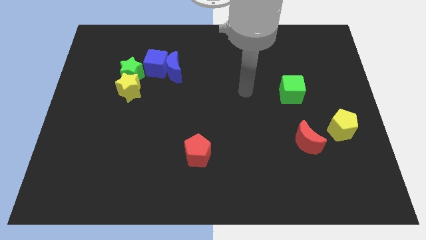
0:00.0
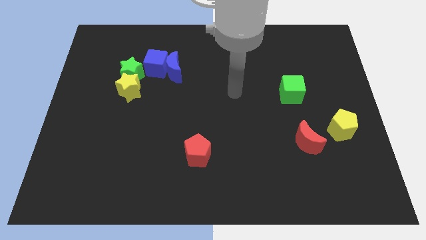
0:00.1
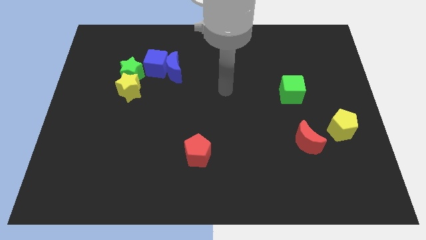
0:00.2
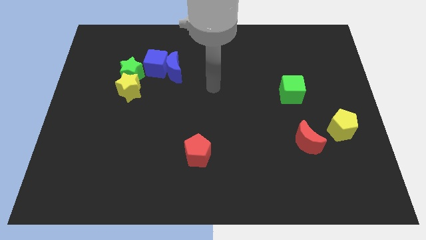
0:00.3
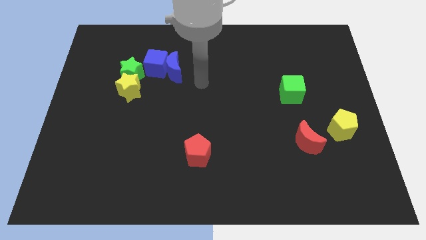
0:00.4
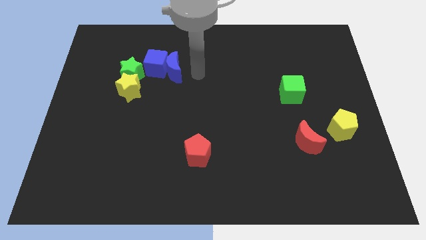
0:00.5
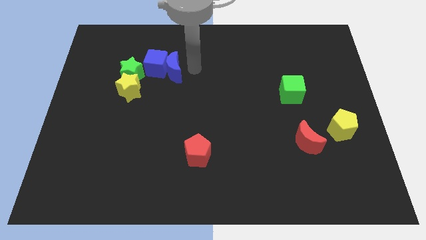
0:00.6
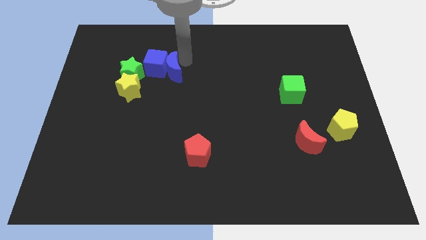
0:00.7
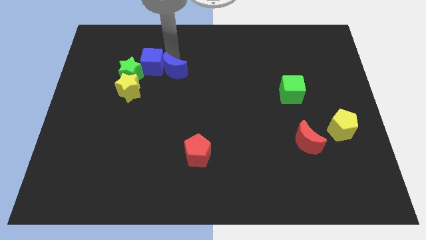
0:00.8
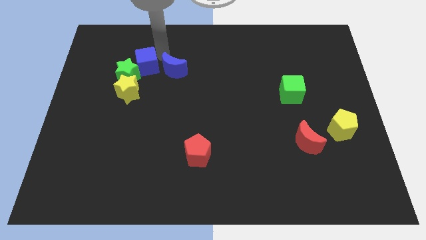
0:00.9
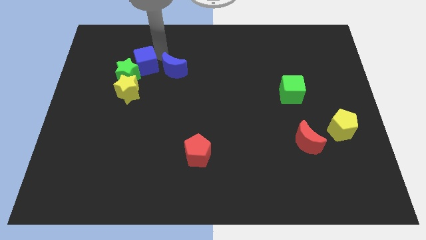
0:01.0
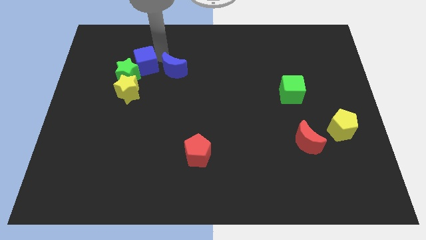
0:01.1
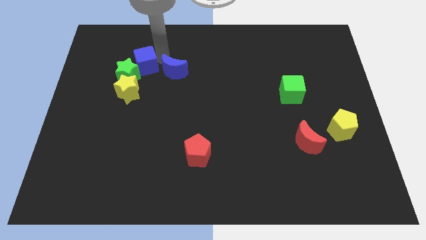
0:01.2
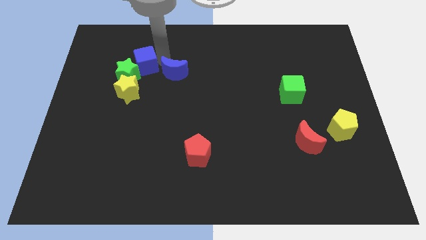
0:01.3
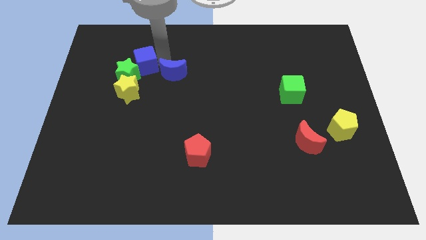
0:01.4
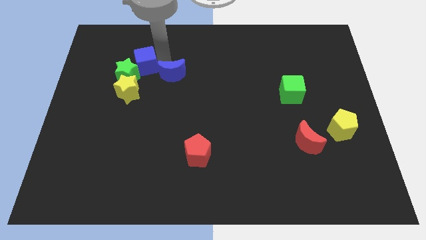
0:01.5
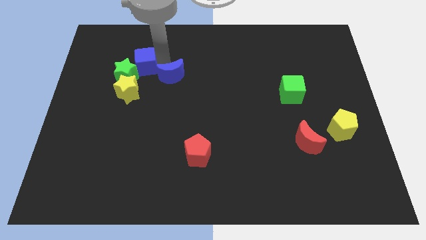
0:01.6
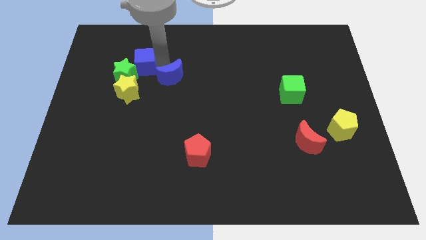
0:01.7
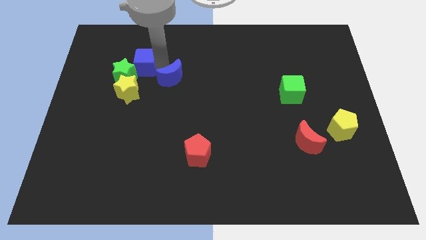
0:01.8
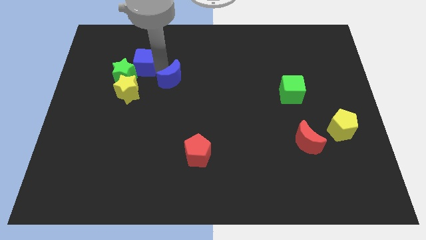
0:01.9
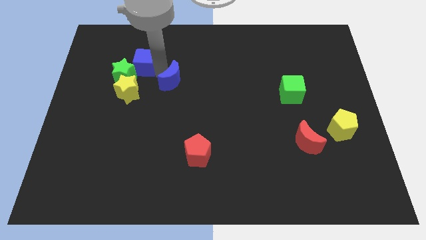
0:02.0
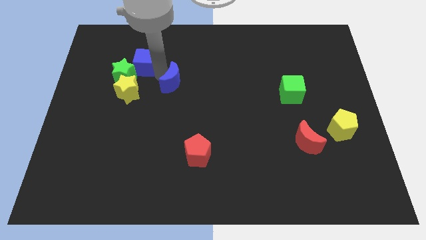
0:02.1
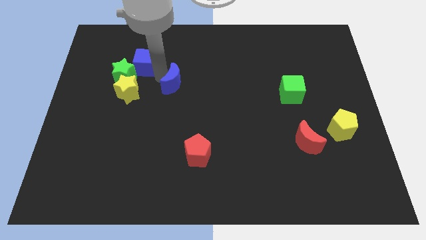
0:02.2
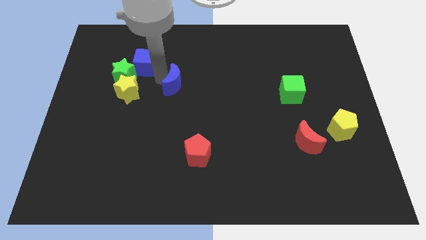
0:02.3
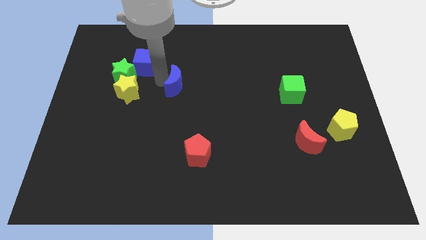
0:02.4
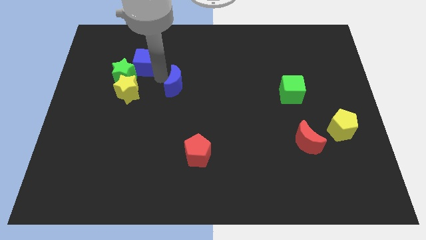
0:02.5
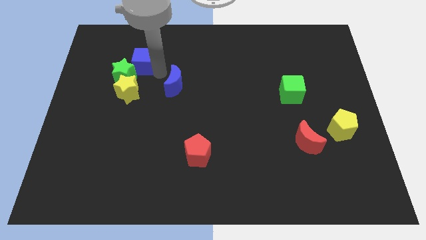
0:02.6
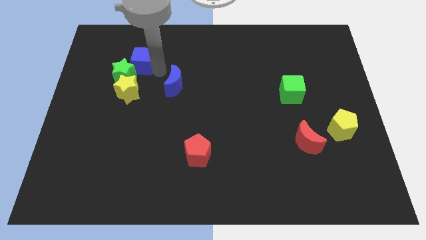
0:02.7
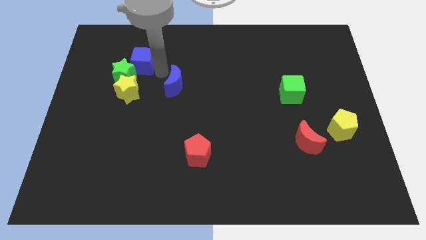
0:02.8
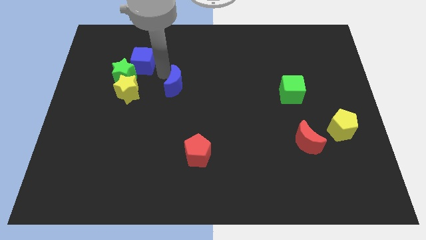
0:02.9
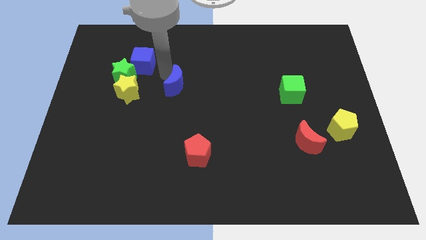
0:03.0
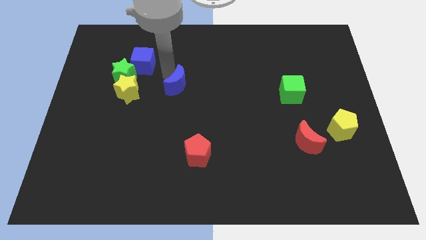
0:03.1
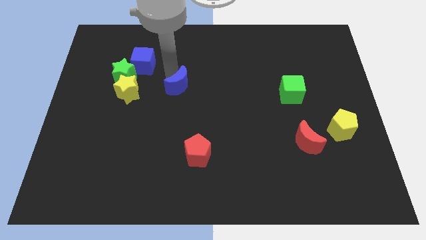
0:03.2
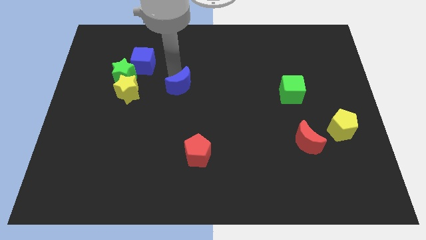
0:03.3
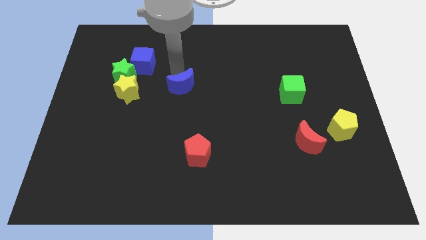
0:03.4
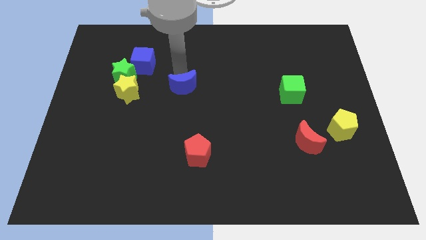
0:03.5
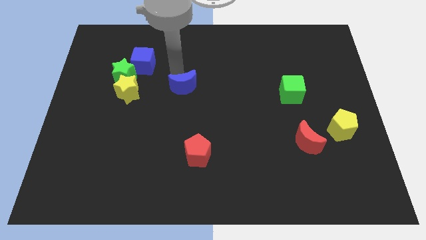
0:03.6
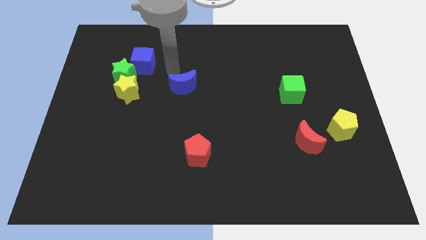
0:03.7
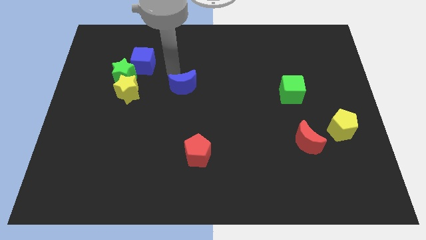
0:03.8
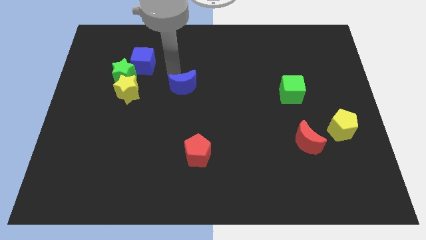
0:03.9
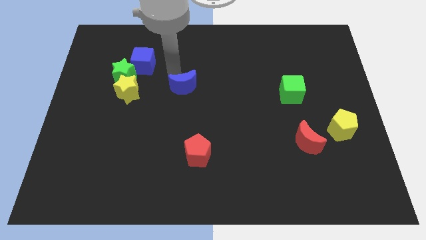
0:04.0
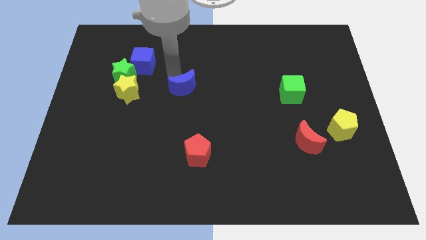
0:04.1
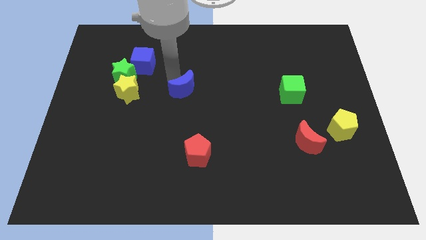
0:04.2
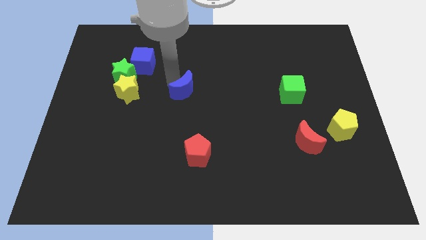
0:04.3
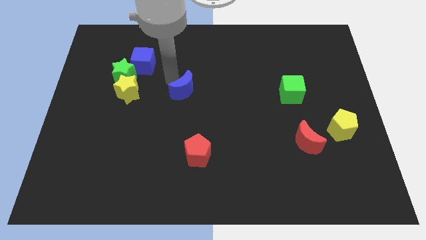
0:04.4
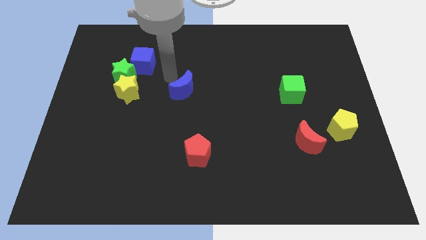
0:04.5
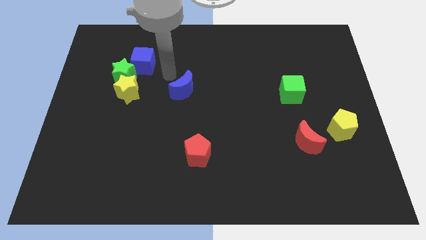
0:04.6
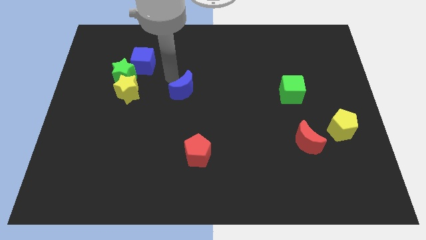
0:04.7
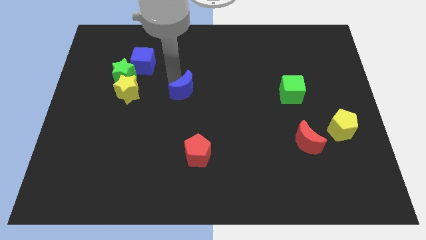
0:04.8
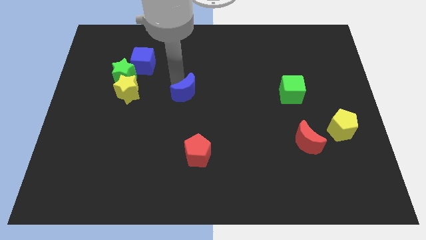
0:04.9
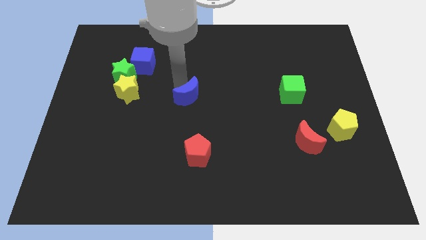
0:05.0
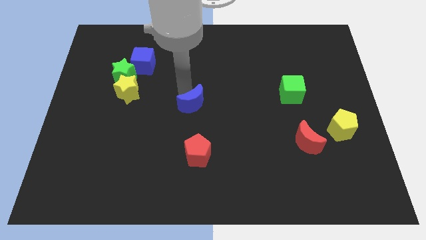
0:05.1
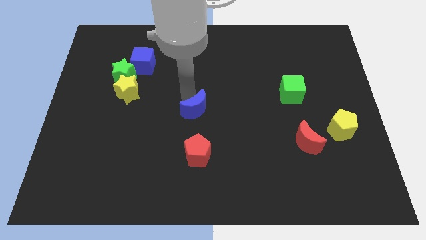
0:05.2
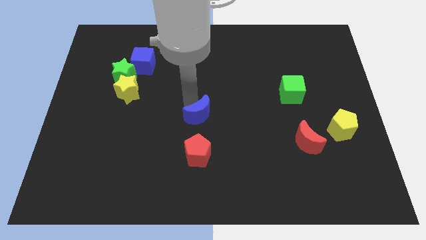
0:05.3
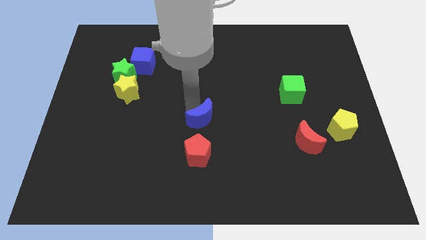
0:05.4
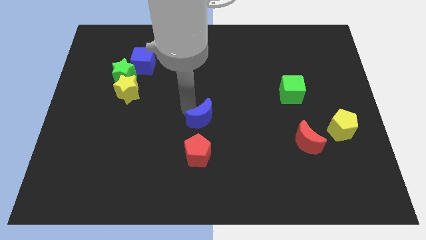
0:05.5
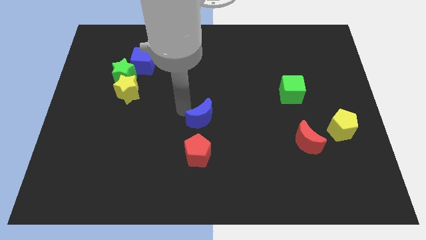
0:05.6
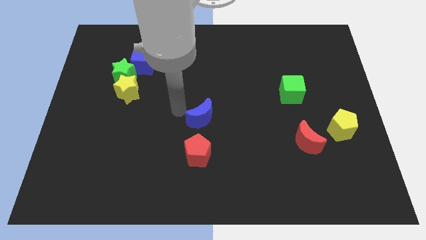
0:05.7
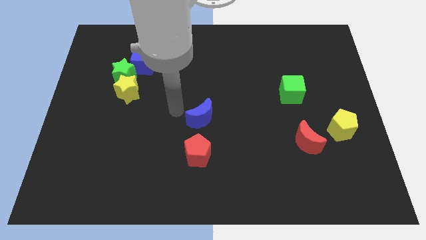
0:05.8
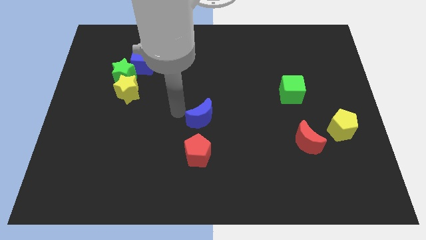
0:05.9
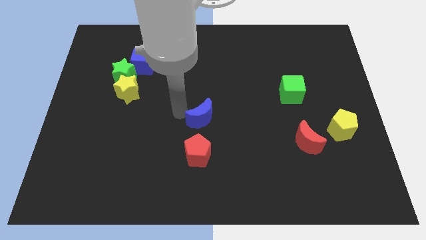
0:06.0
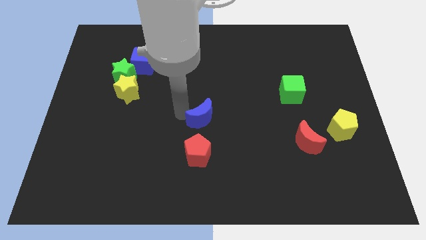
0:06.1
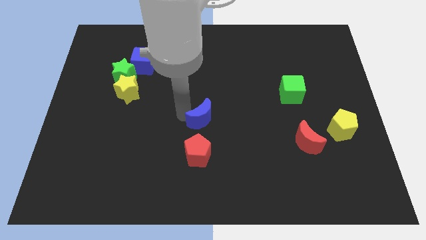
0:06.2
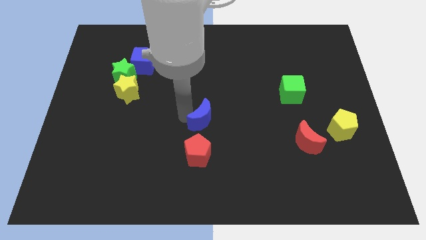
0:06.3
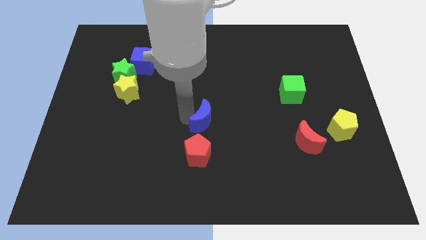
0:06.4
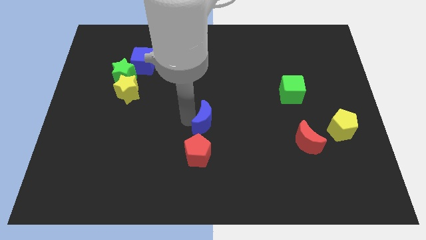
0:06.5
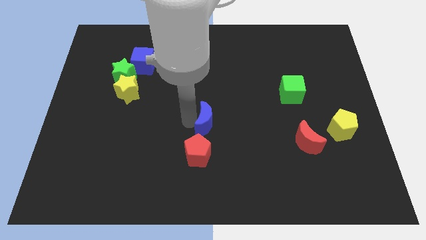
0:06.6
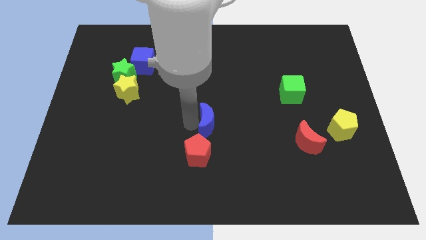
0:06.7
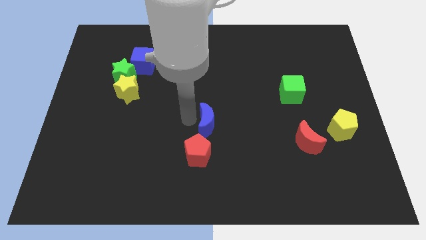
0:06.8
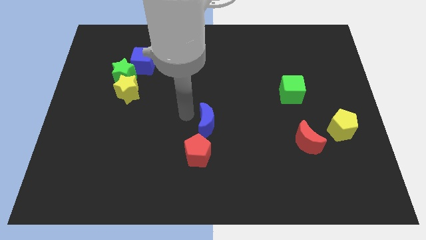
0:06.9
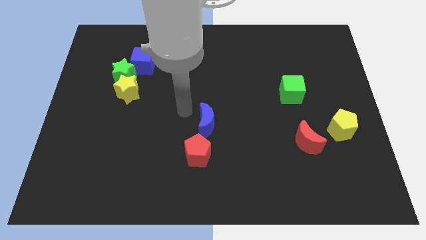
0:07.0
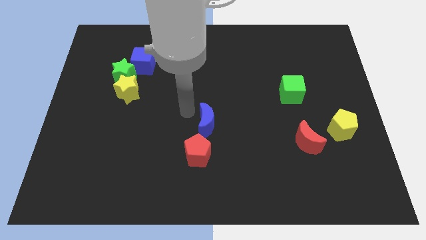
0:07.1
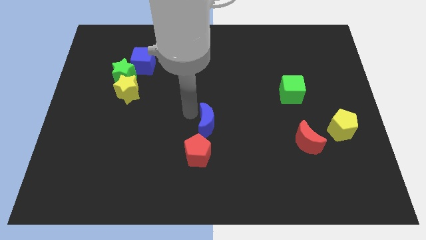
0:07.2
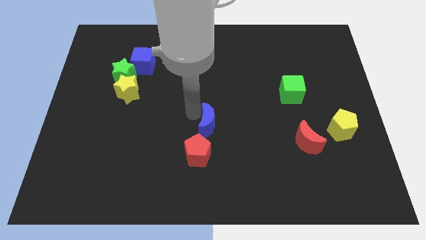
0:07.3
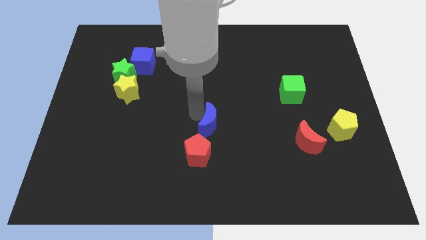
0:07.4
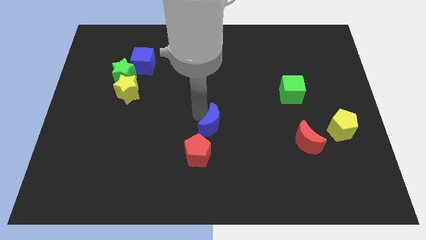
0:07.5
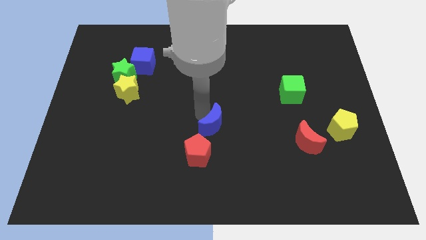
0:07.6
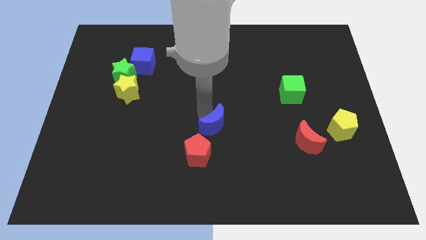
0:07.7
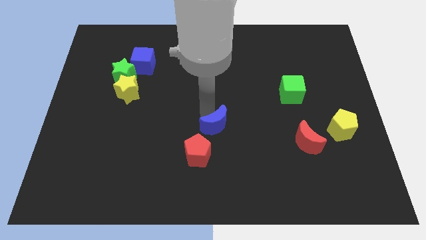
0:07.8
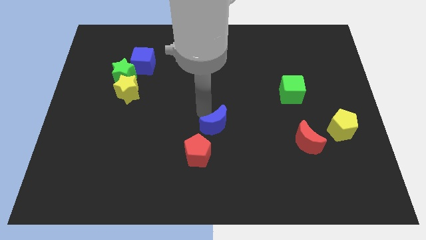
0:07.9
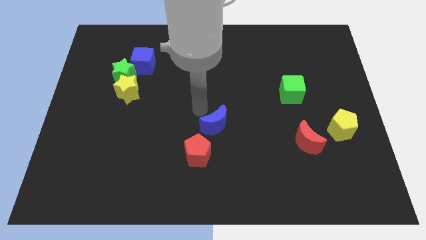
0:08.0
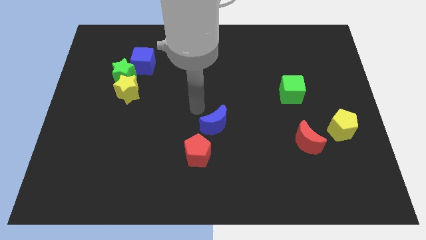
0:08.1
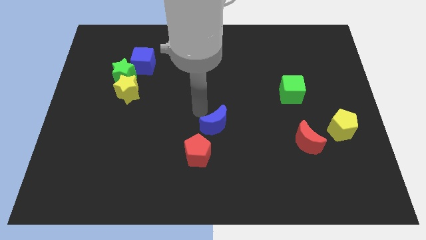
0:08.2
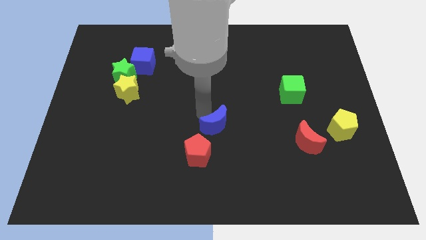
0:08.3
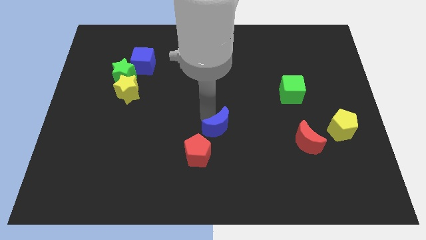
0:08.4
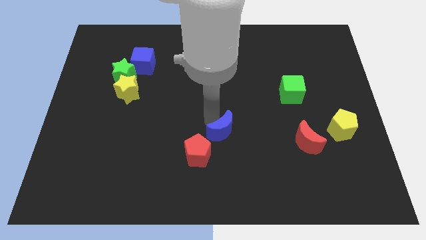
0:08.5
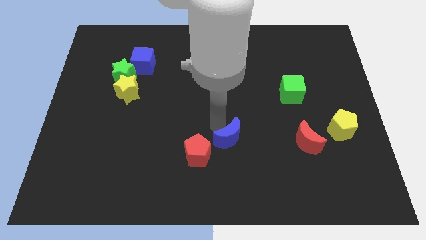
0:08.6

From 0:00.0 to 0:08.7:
slide the blue moon to the right of the red pentagon
